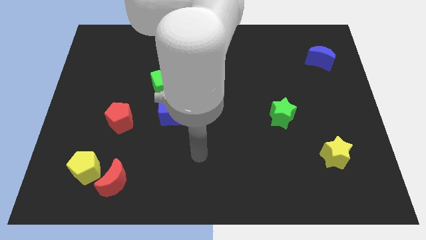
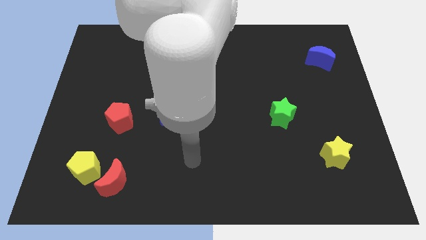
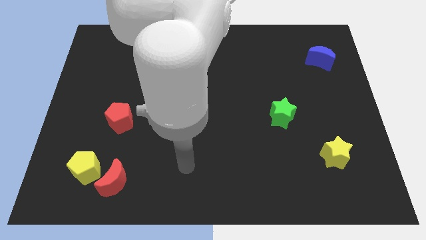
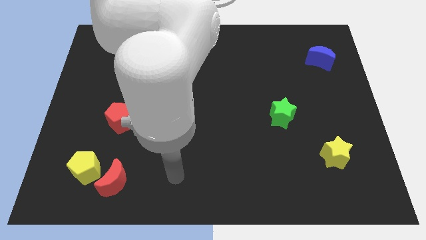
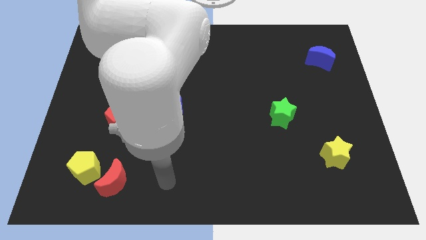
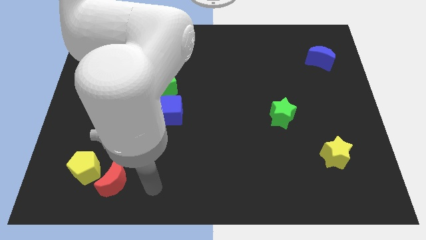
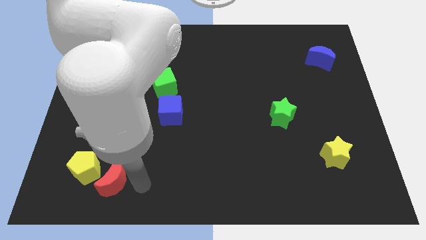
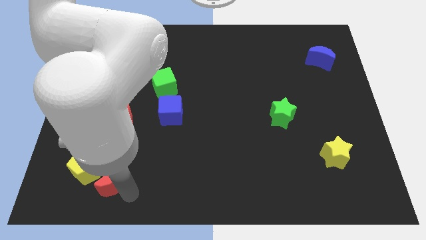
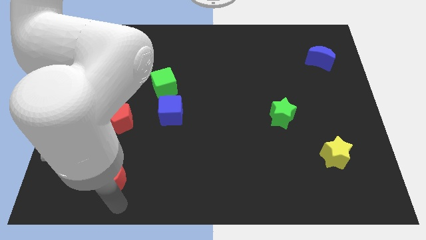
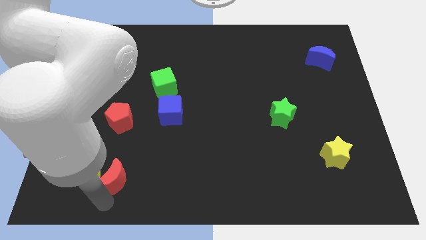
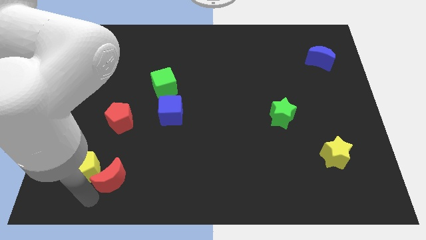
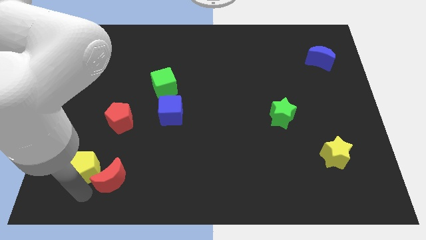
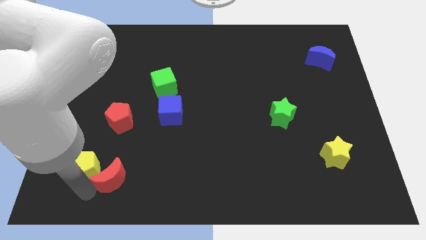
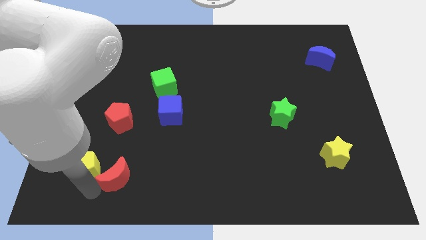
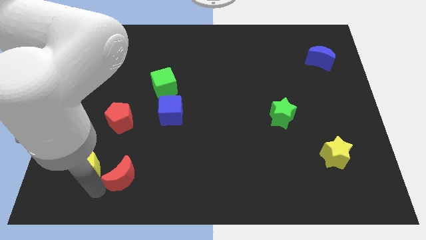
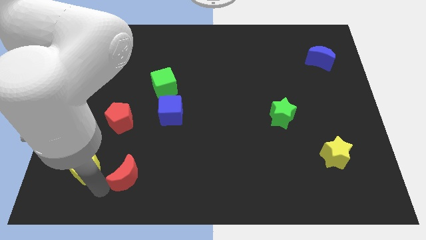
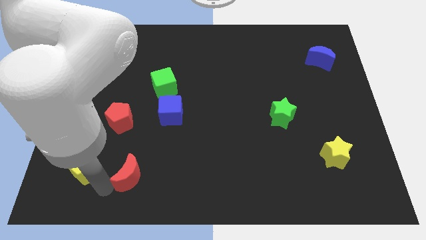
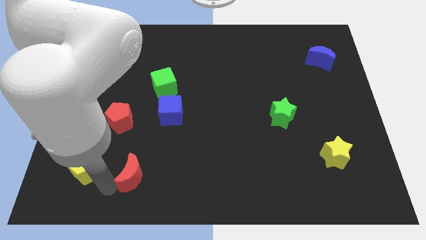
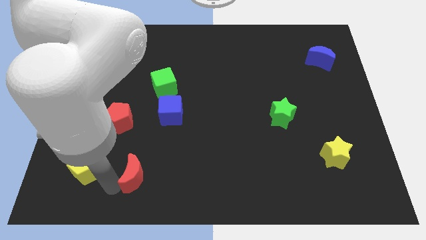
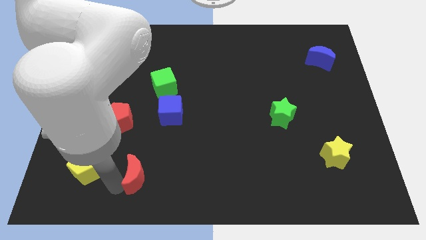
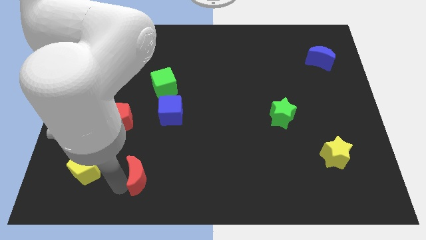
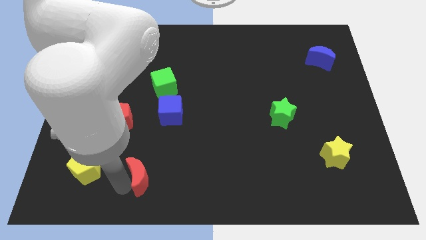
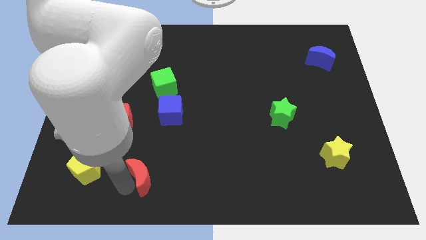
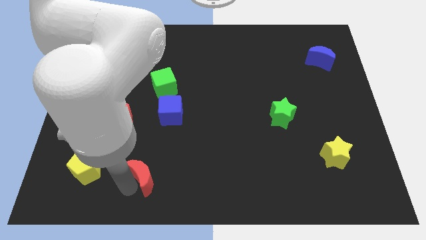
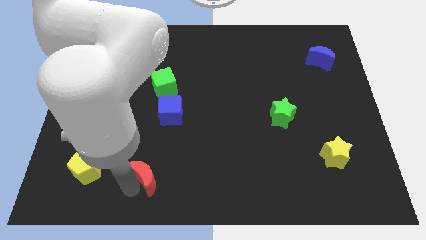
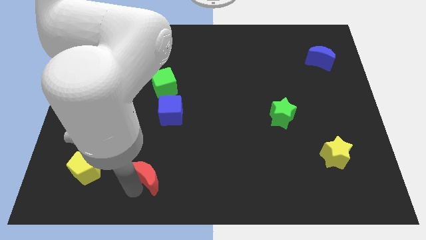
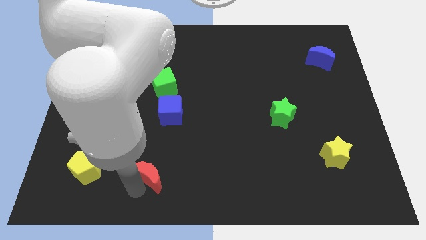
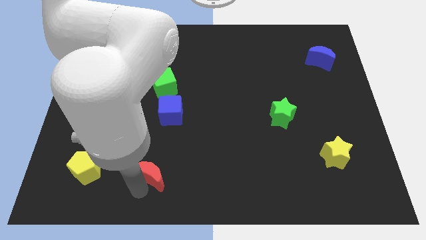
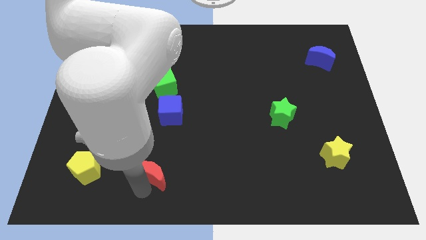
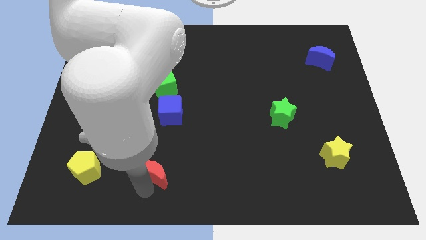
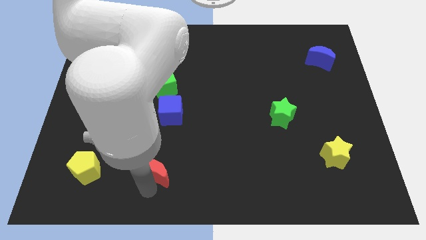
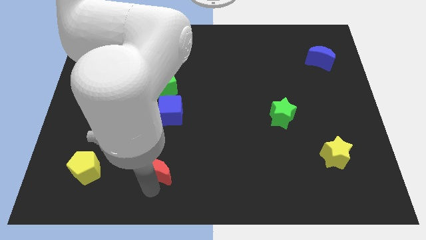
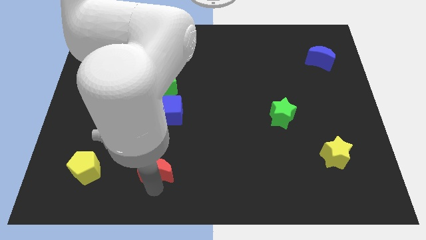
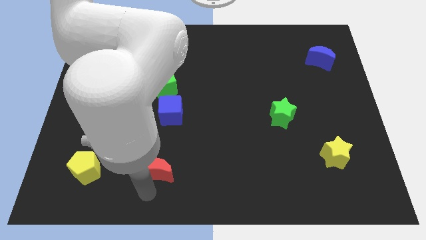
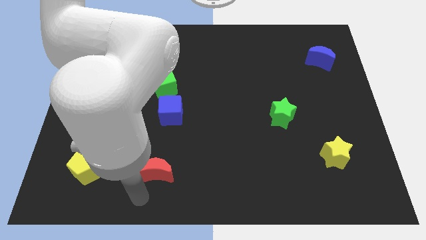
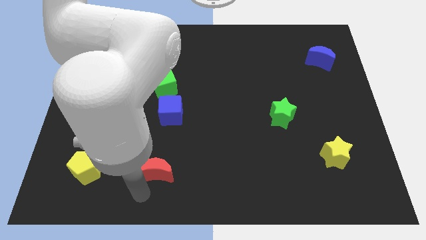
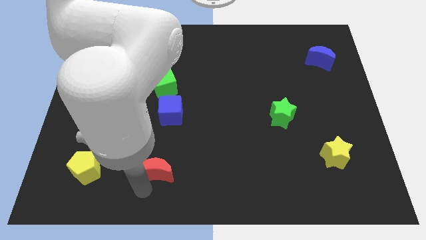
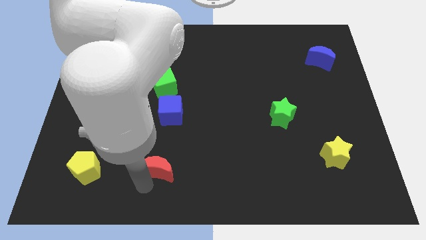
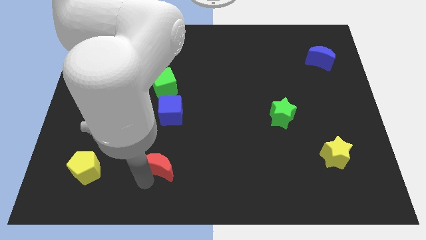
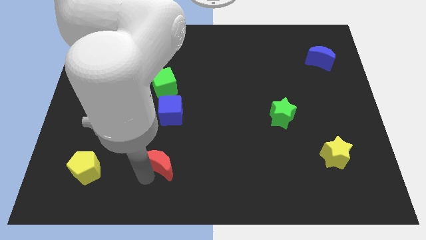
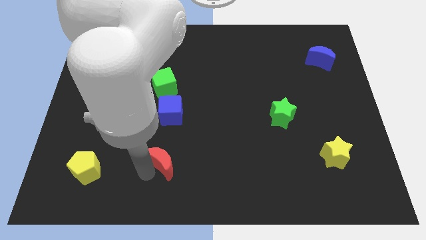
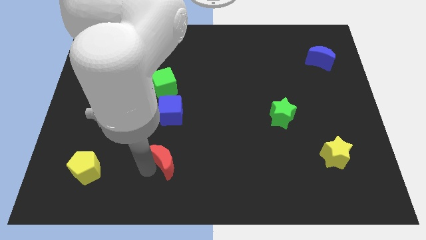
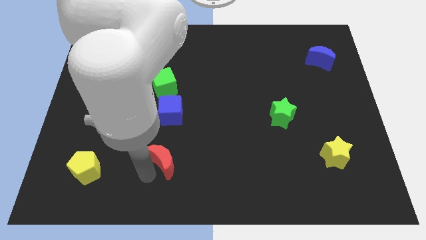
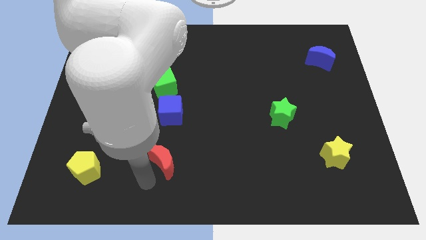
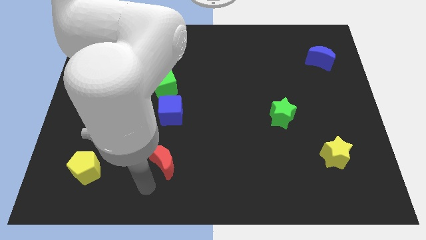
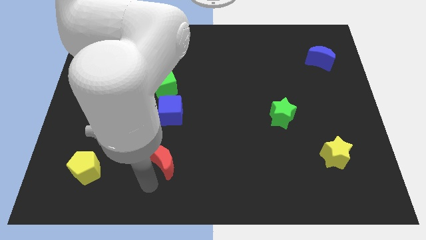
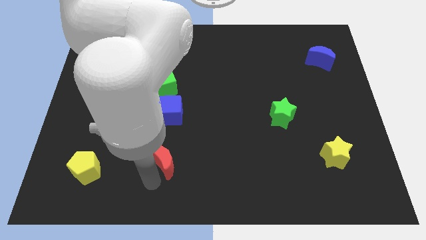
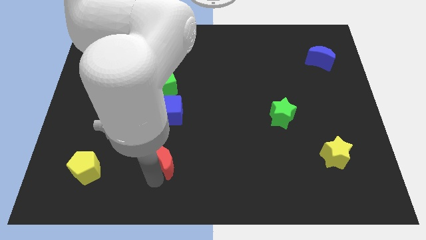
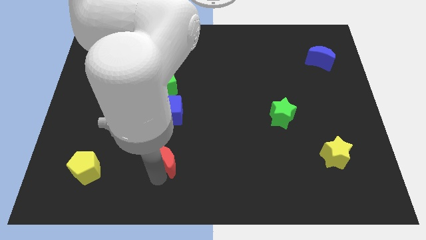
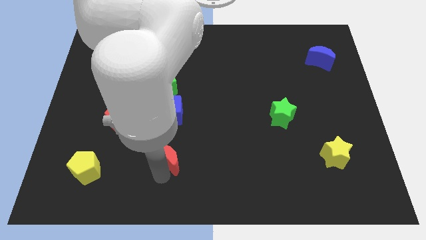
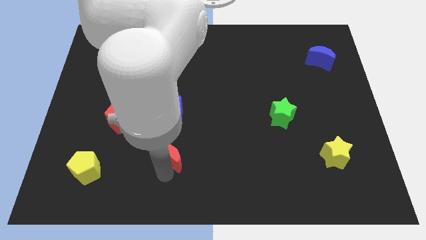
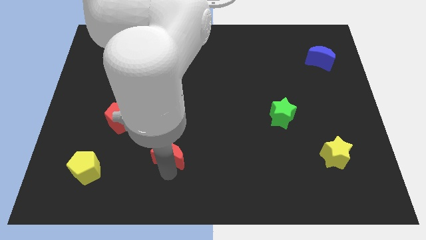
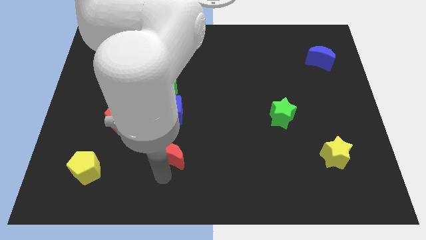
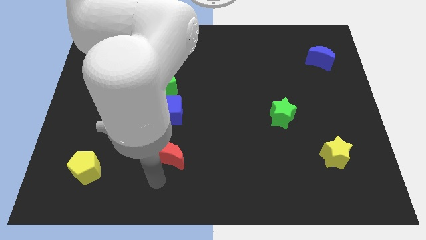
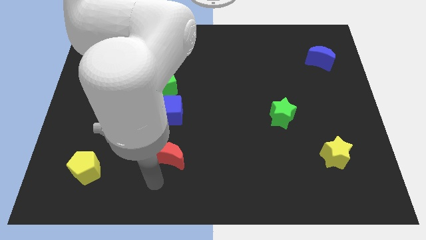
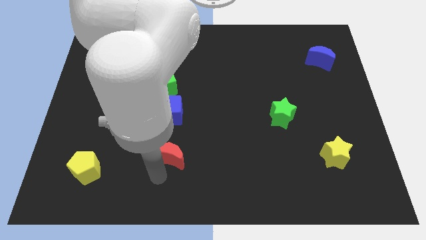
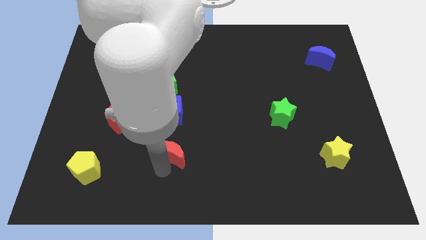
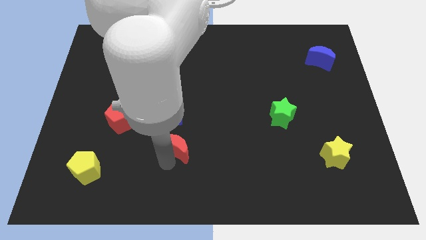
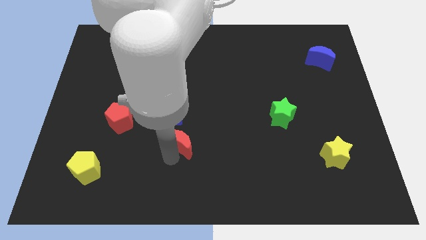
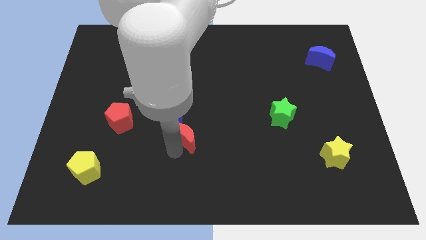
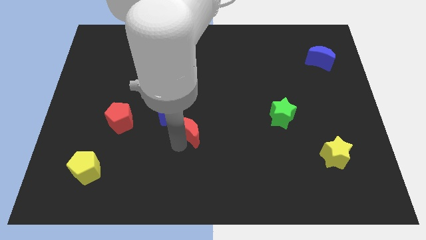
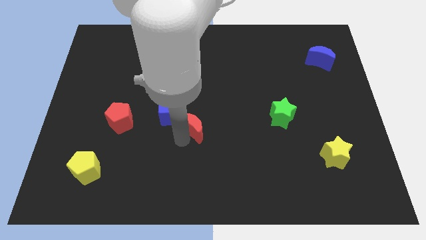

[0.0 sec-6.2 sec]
put the red moon to the right side of the blue cube

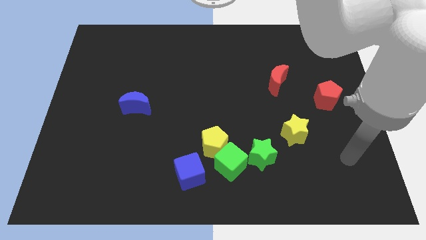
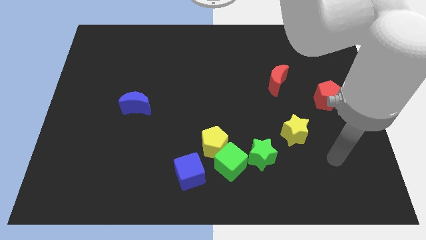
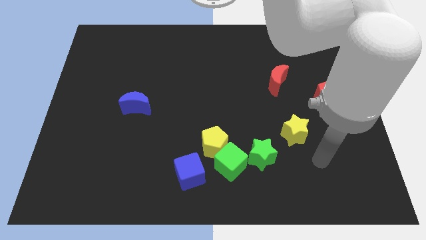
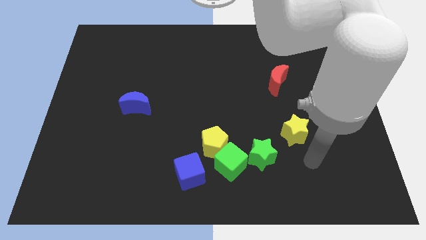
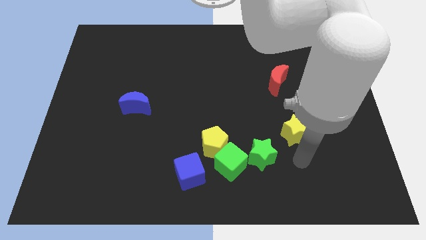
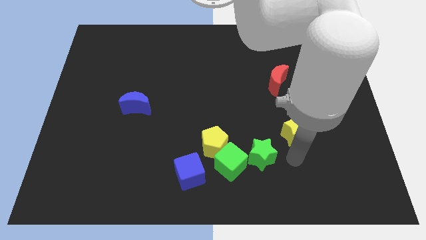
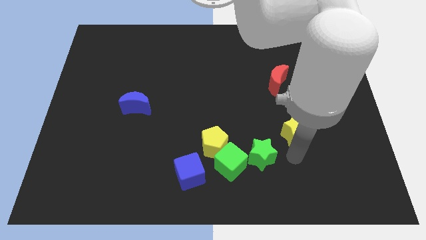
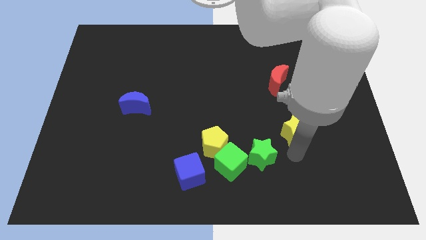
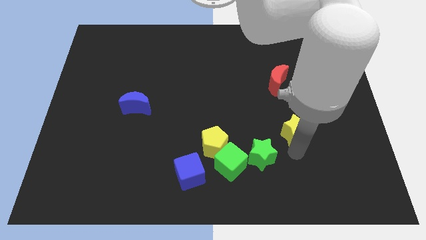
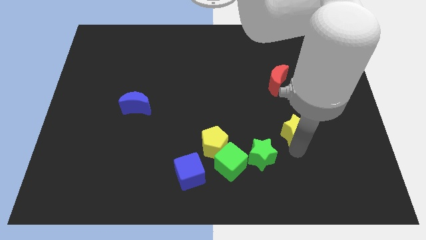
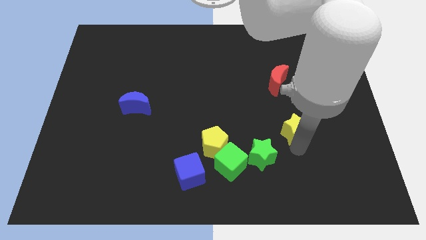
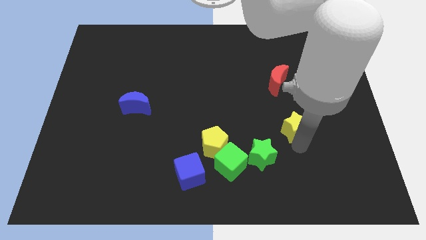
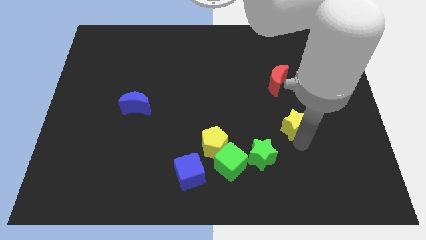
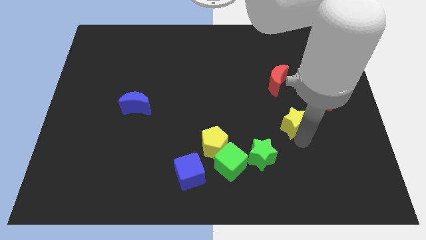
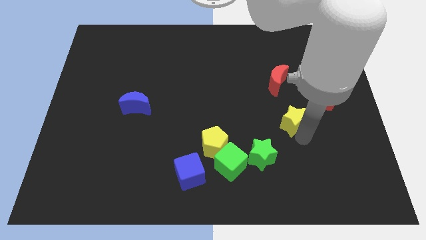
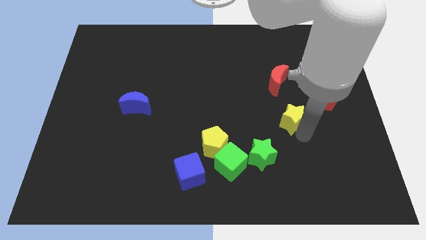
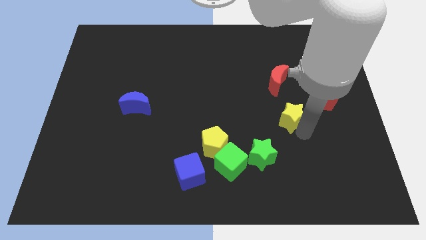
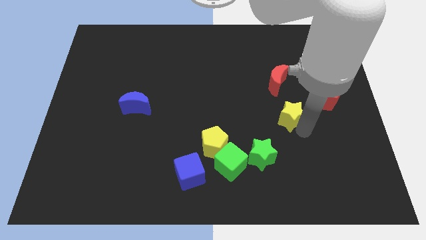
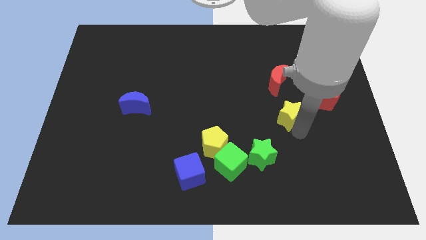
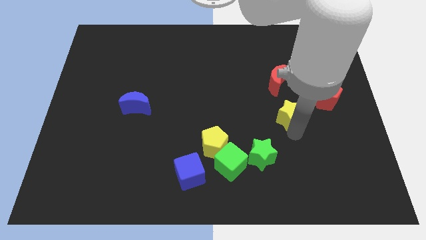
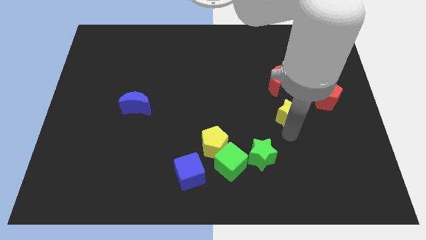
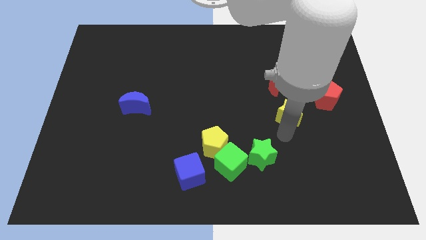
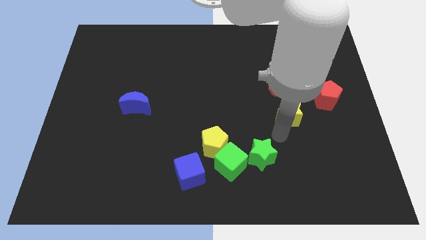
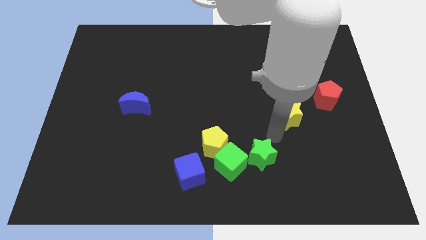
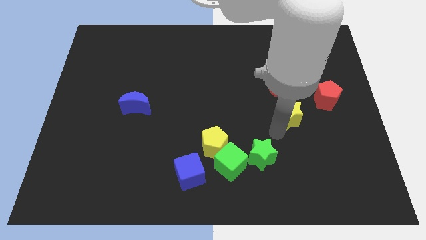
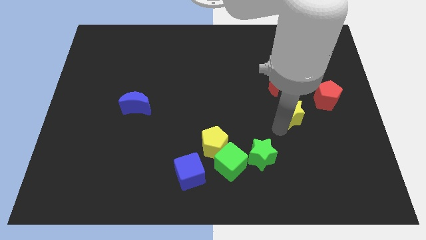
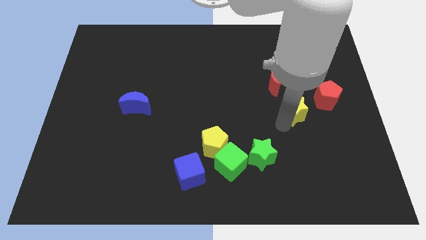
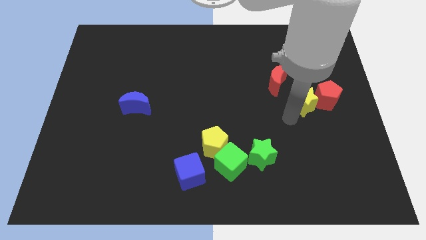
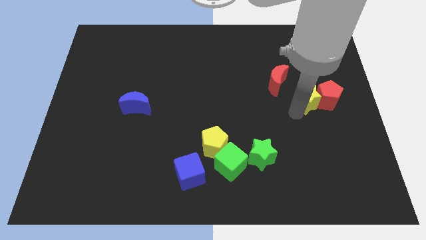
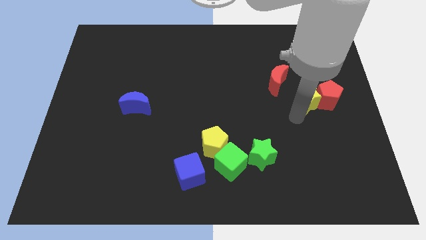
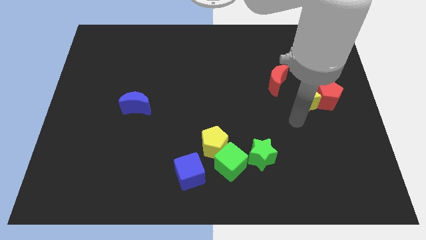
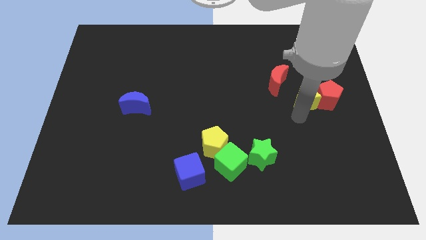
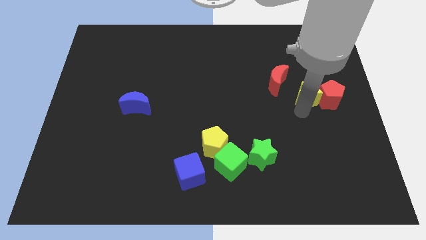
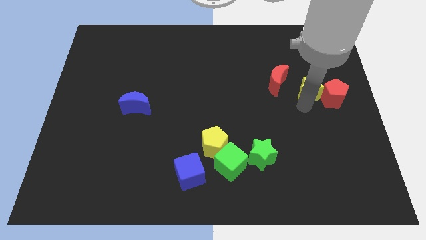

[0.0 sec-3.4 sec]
put the yellow star just right of the red moon
